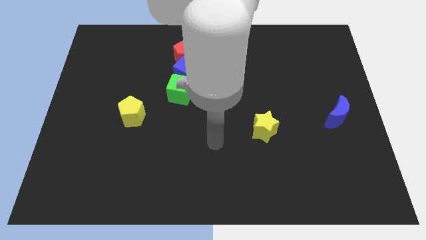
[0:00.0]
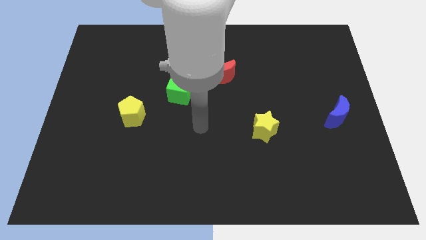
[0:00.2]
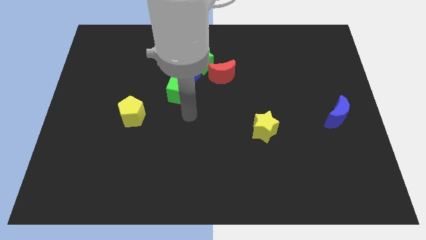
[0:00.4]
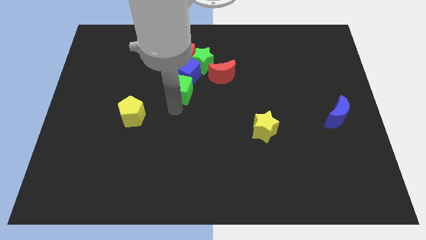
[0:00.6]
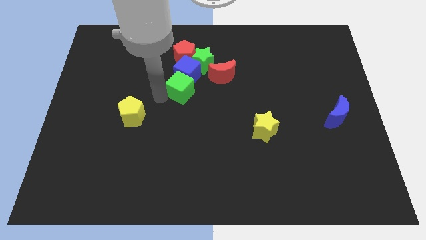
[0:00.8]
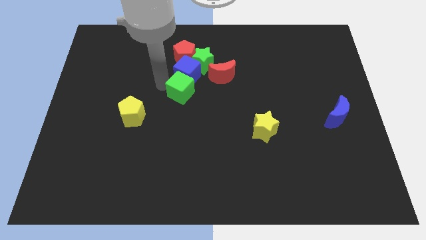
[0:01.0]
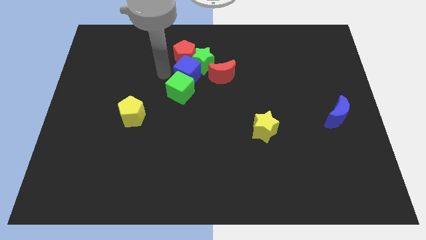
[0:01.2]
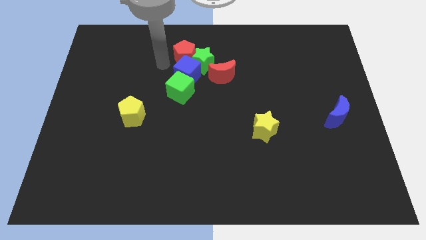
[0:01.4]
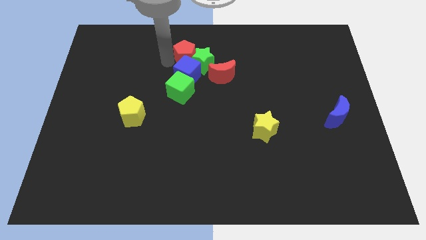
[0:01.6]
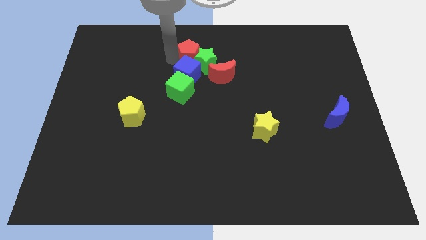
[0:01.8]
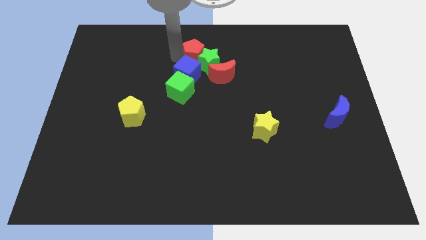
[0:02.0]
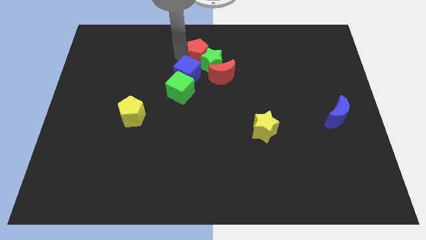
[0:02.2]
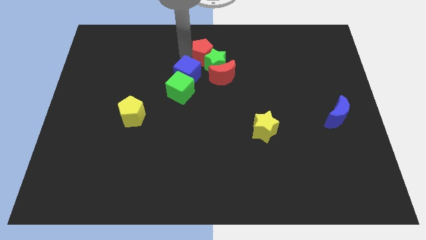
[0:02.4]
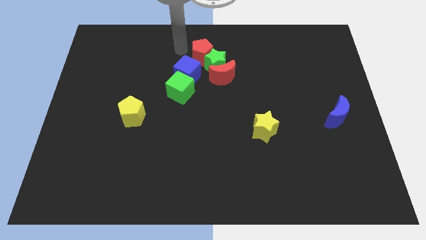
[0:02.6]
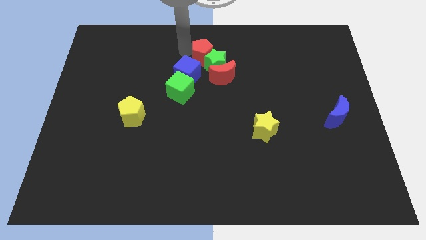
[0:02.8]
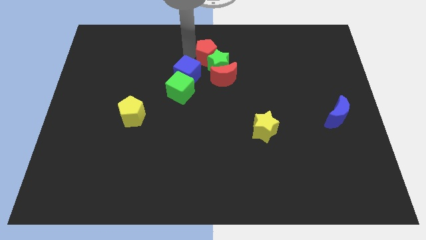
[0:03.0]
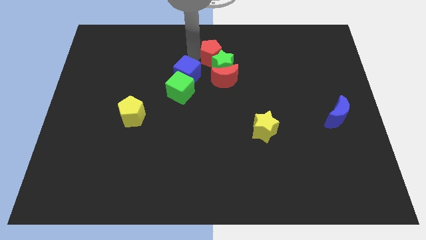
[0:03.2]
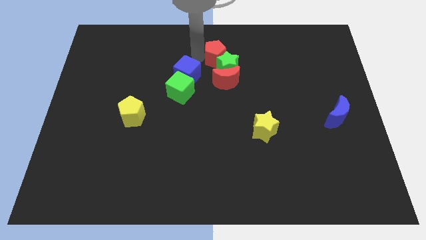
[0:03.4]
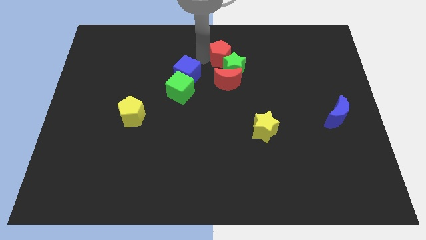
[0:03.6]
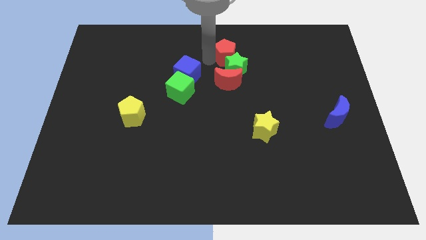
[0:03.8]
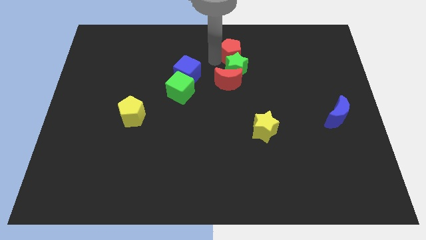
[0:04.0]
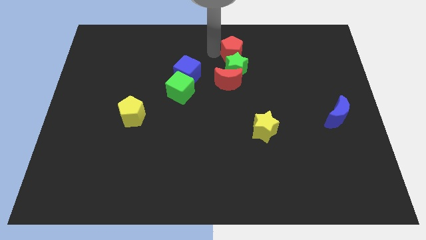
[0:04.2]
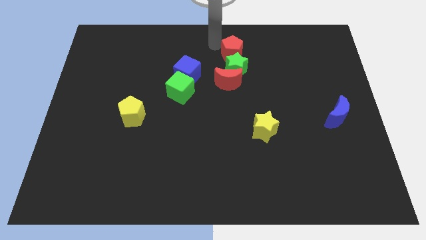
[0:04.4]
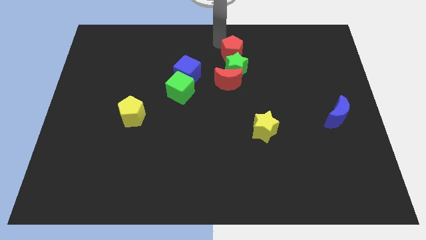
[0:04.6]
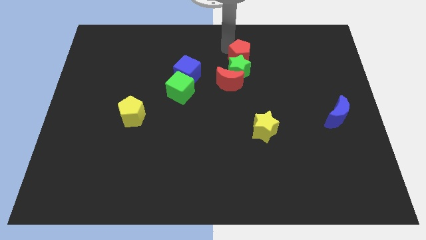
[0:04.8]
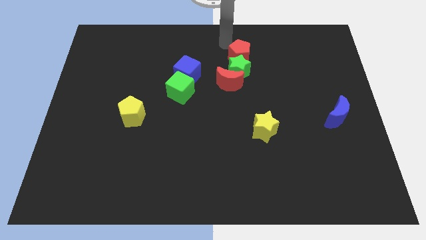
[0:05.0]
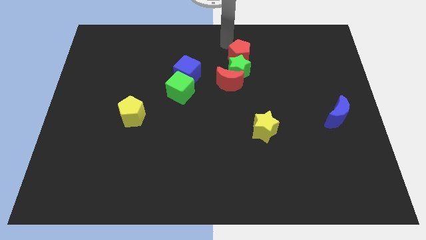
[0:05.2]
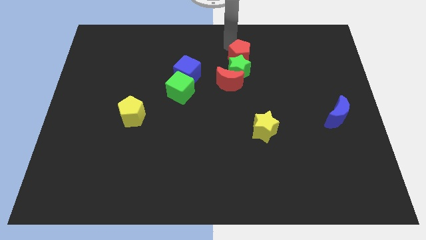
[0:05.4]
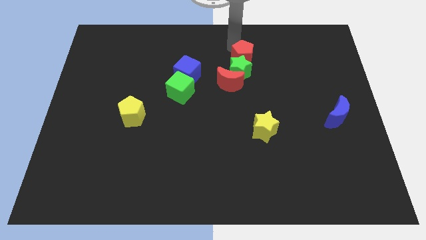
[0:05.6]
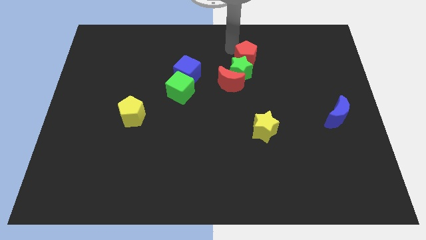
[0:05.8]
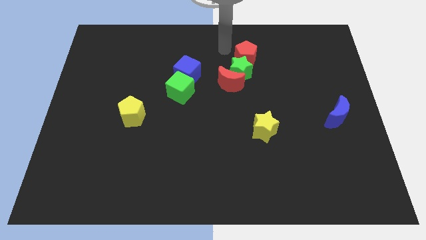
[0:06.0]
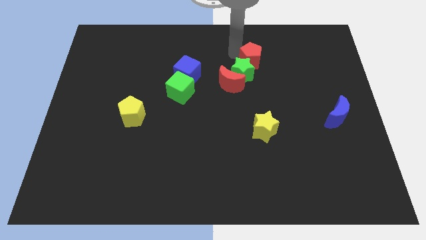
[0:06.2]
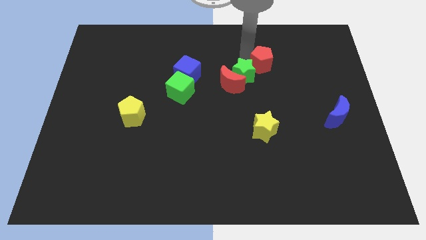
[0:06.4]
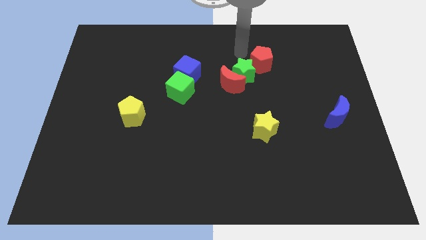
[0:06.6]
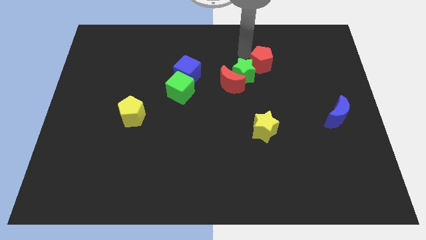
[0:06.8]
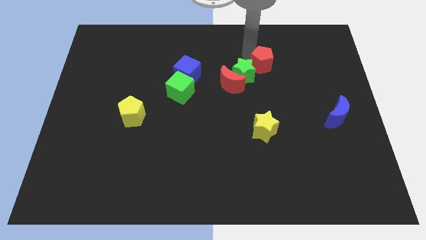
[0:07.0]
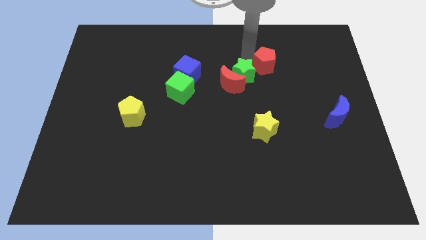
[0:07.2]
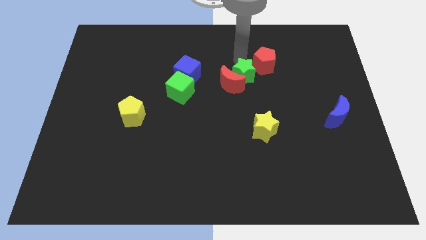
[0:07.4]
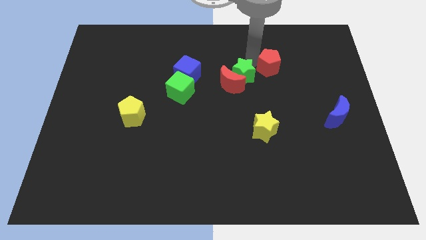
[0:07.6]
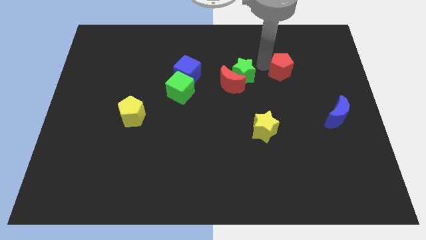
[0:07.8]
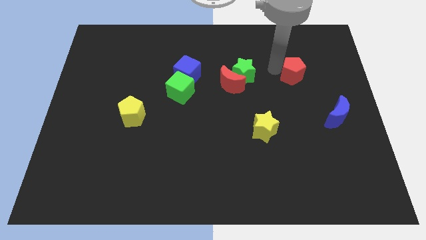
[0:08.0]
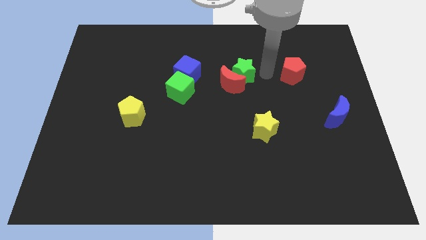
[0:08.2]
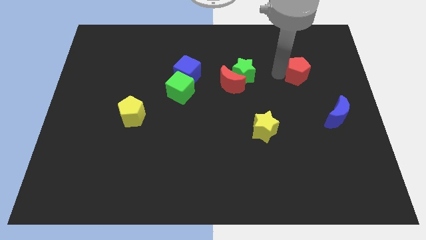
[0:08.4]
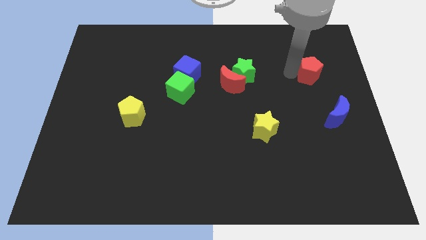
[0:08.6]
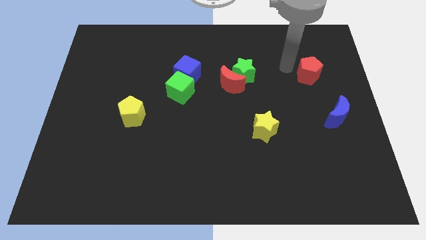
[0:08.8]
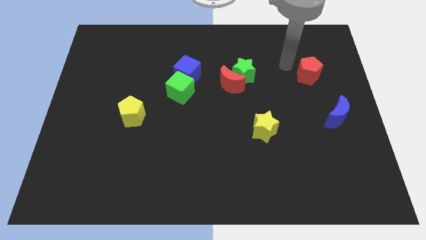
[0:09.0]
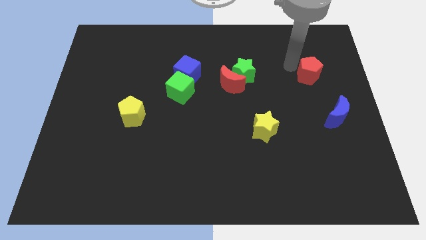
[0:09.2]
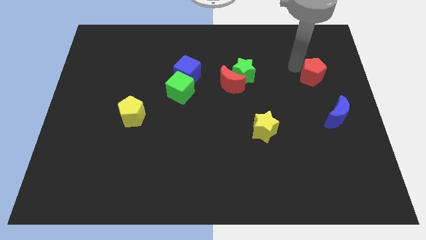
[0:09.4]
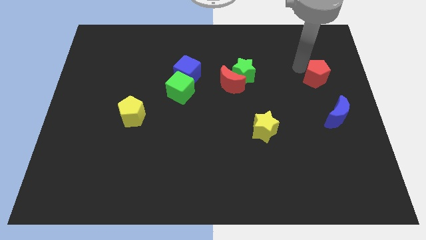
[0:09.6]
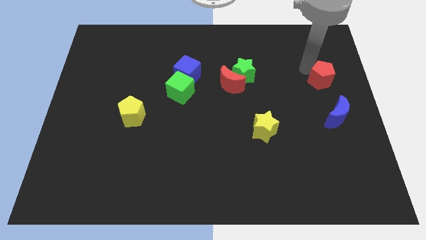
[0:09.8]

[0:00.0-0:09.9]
slide the red pentagon to the center right

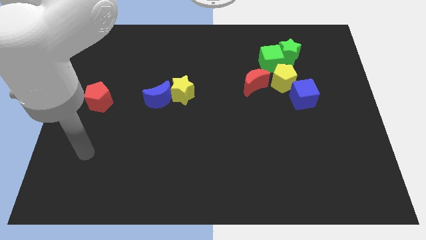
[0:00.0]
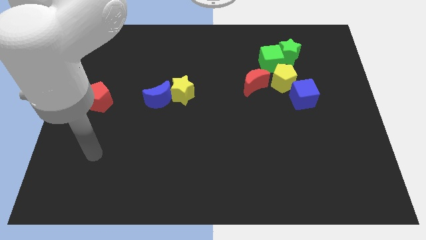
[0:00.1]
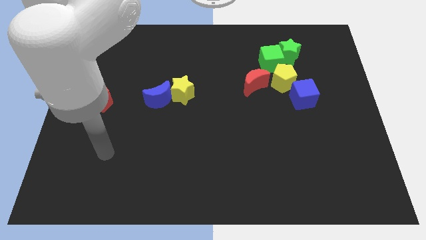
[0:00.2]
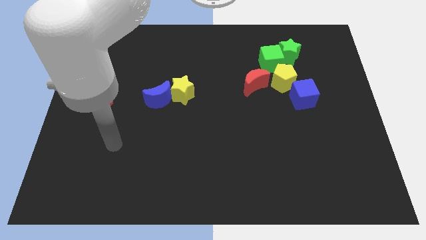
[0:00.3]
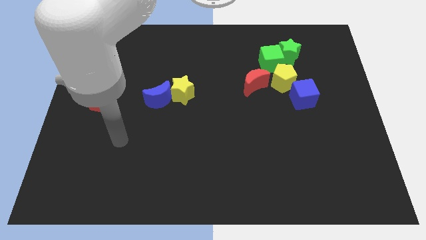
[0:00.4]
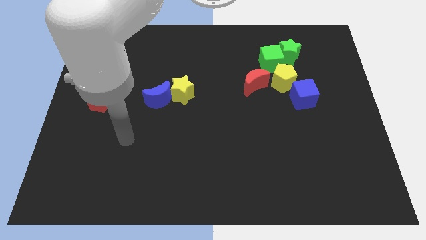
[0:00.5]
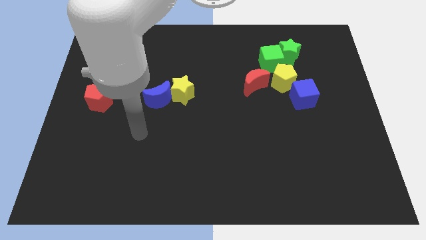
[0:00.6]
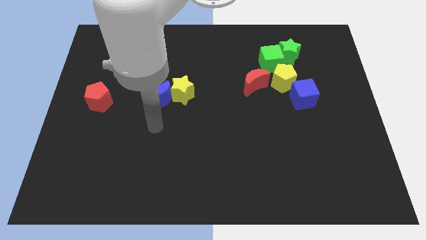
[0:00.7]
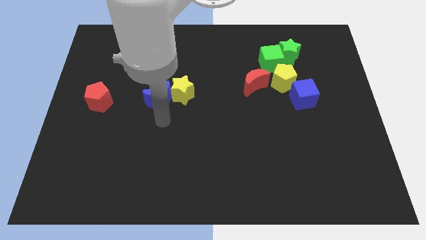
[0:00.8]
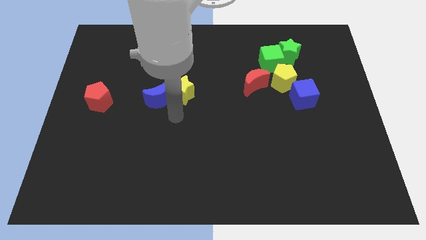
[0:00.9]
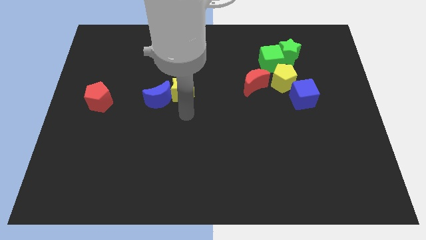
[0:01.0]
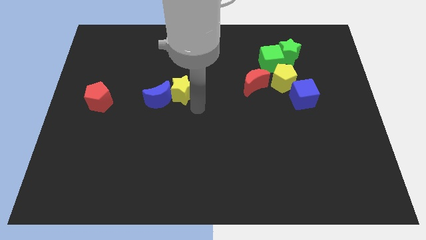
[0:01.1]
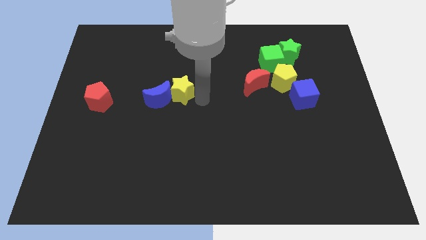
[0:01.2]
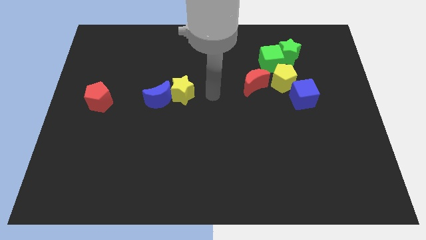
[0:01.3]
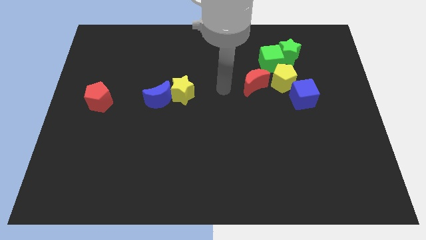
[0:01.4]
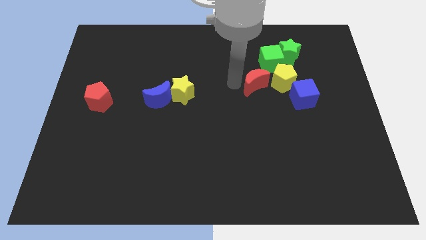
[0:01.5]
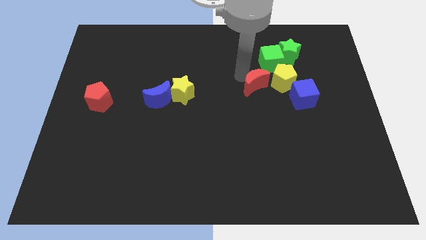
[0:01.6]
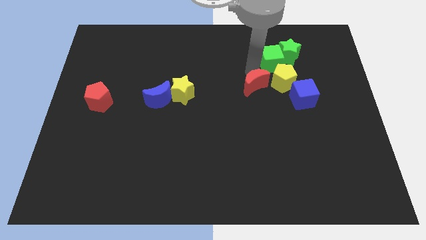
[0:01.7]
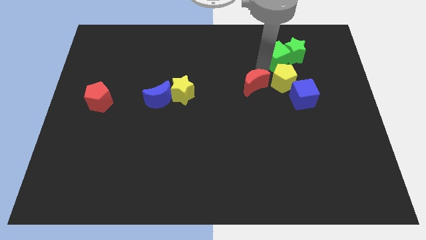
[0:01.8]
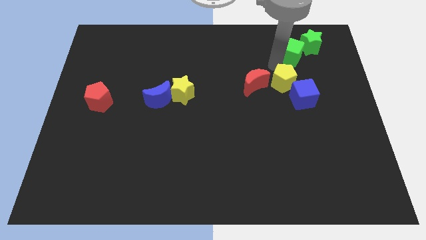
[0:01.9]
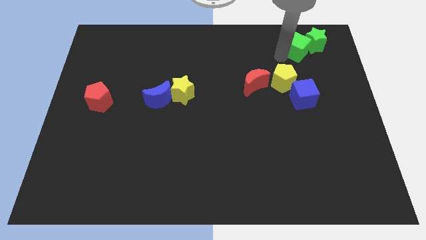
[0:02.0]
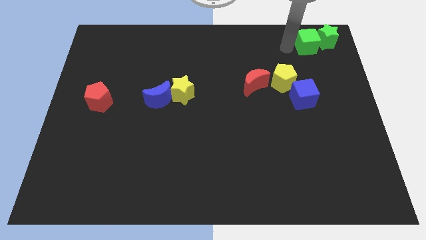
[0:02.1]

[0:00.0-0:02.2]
slide the green star to the top right corner
